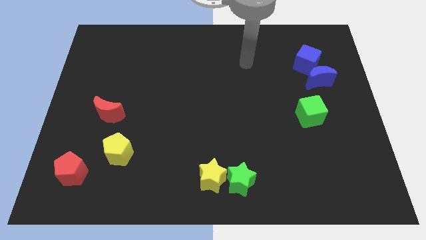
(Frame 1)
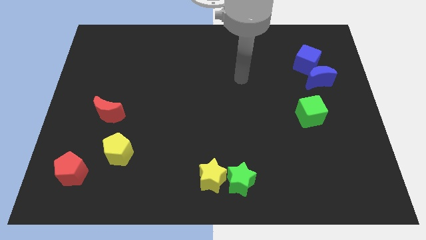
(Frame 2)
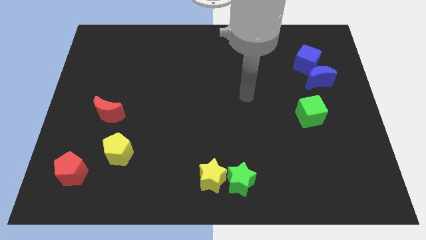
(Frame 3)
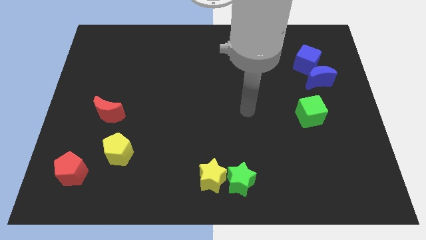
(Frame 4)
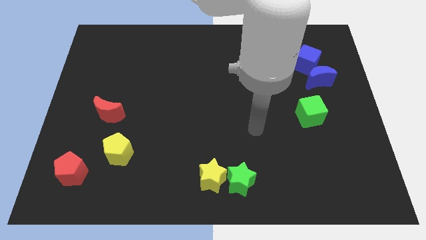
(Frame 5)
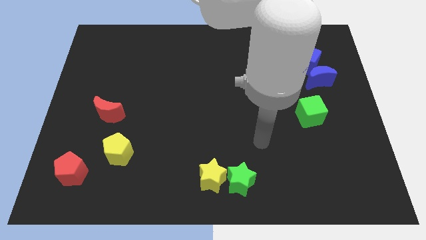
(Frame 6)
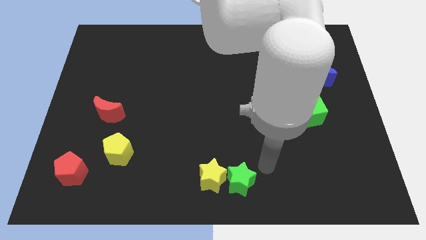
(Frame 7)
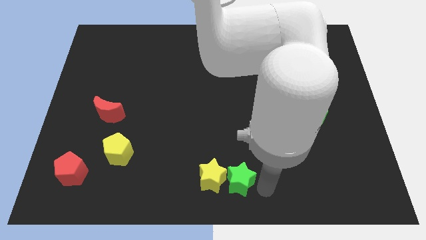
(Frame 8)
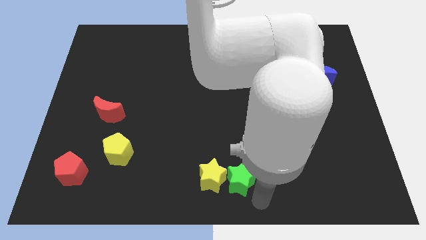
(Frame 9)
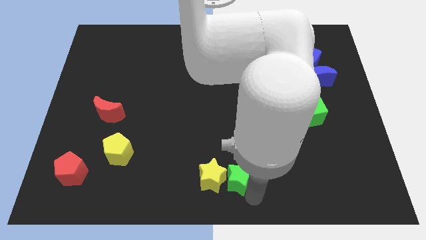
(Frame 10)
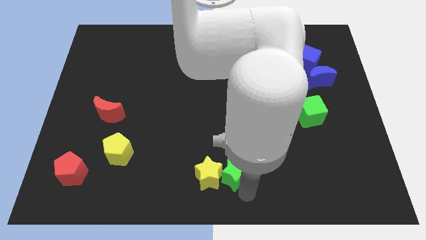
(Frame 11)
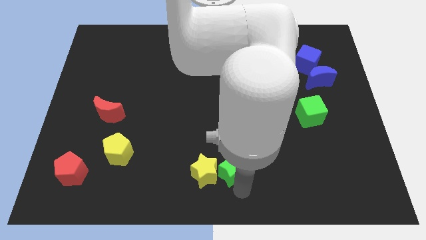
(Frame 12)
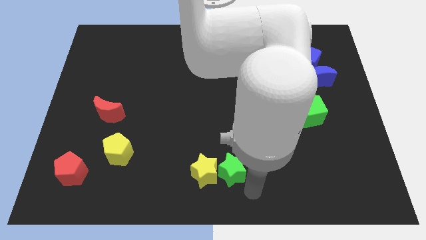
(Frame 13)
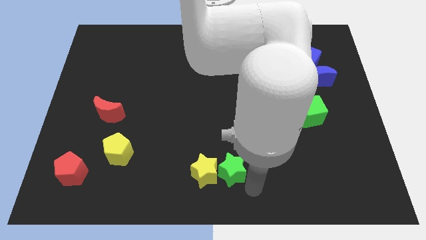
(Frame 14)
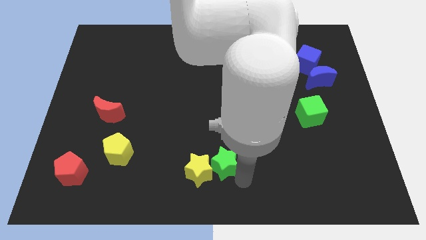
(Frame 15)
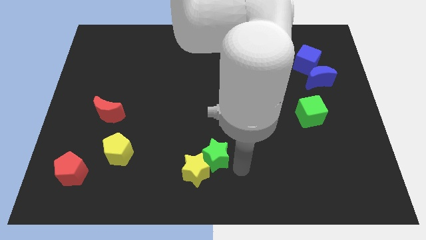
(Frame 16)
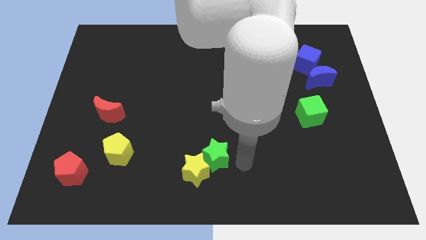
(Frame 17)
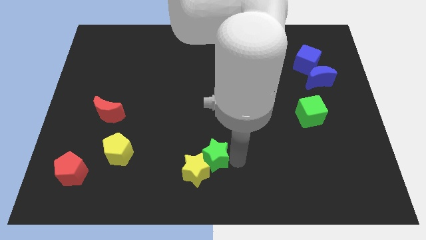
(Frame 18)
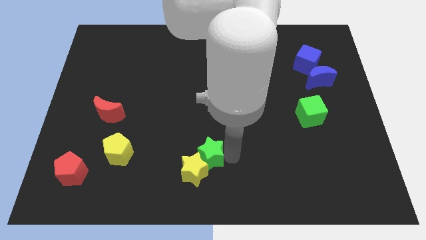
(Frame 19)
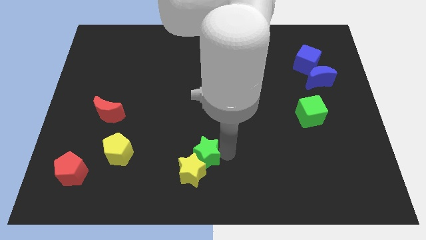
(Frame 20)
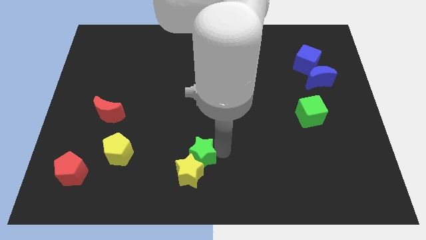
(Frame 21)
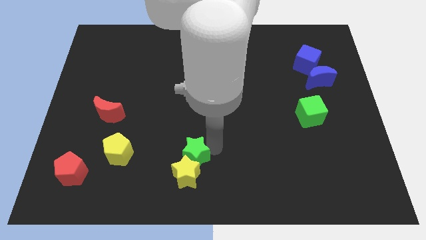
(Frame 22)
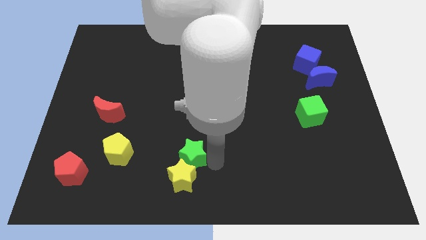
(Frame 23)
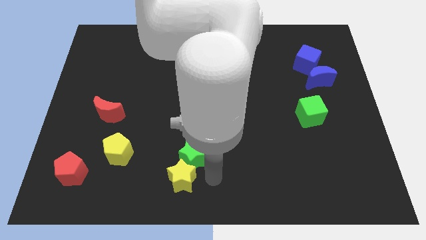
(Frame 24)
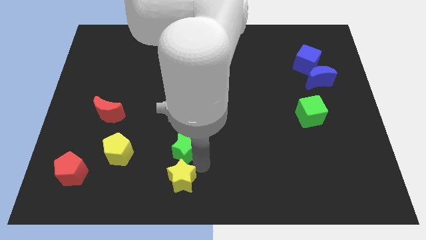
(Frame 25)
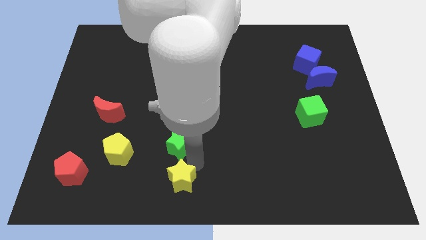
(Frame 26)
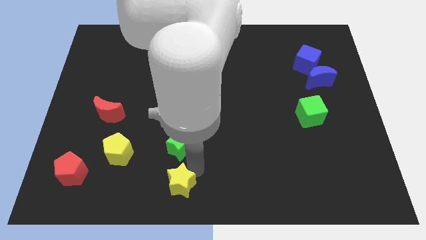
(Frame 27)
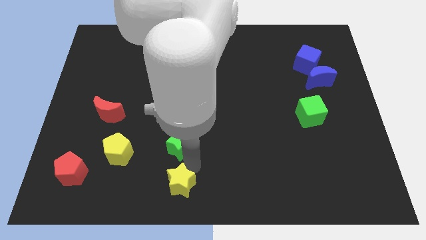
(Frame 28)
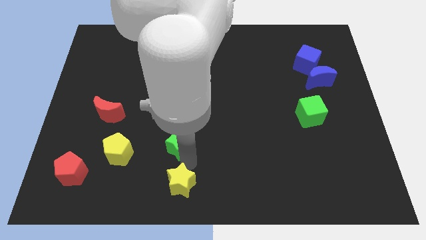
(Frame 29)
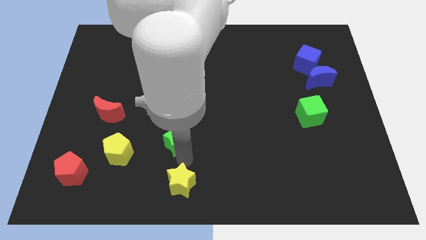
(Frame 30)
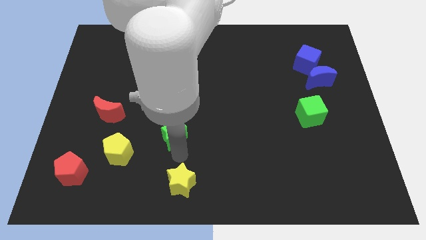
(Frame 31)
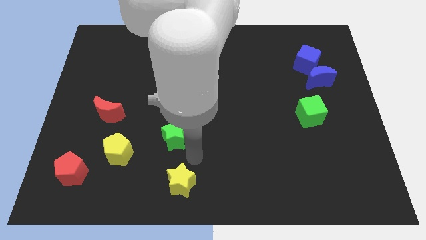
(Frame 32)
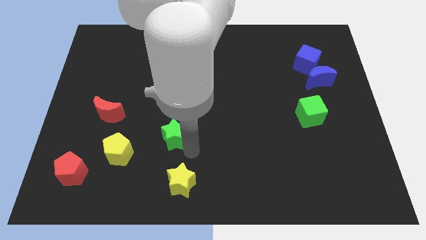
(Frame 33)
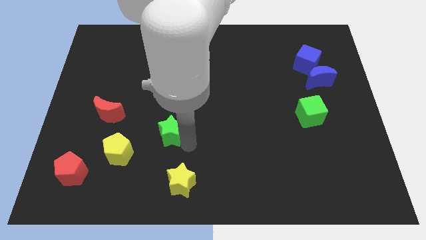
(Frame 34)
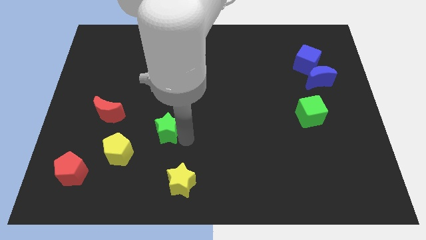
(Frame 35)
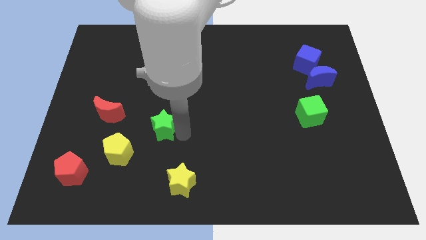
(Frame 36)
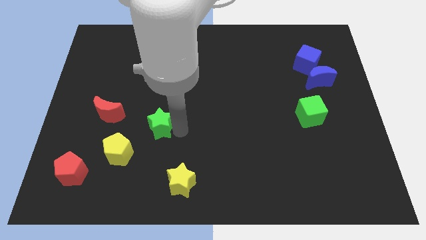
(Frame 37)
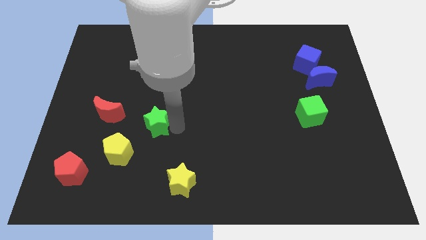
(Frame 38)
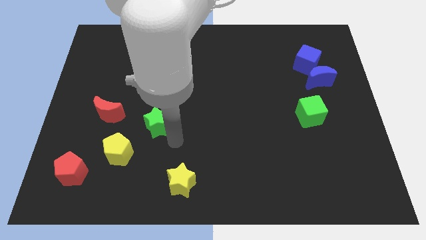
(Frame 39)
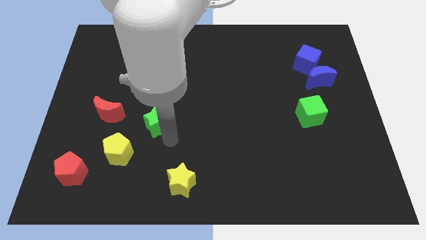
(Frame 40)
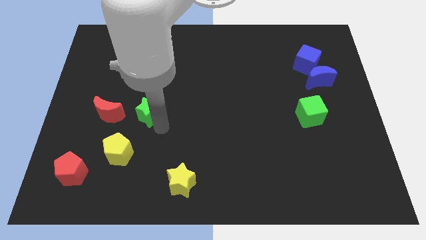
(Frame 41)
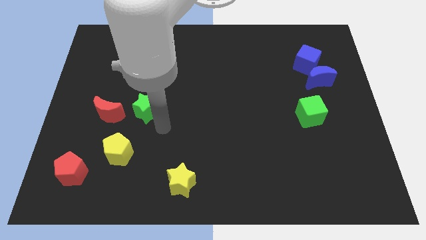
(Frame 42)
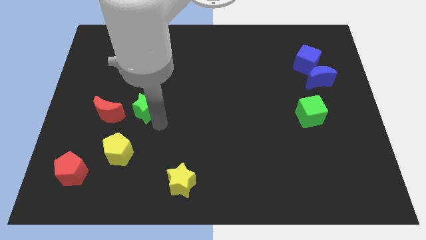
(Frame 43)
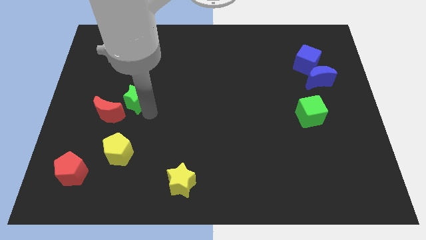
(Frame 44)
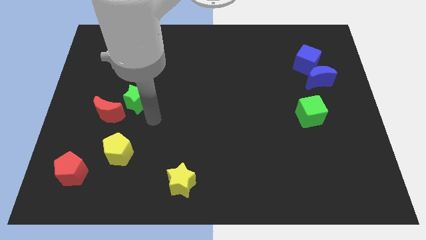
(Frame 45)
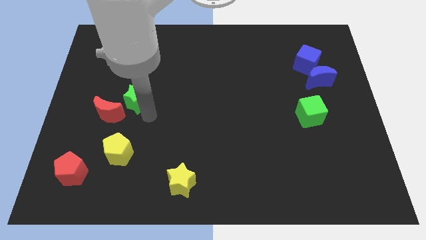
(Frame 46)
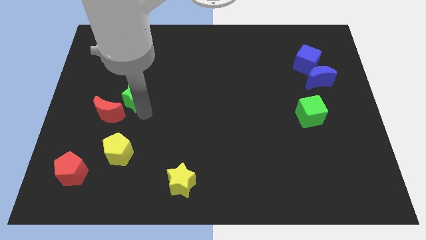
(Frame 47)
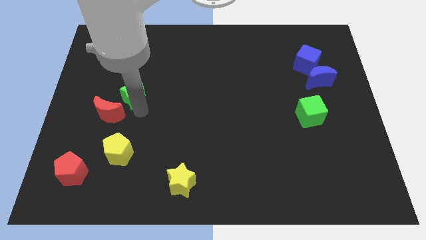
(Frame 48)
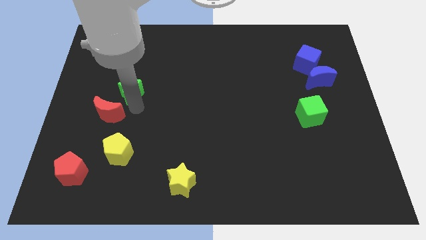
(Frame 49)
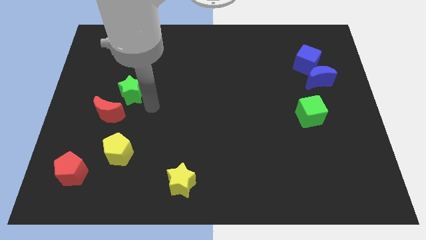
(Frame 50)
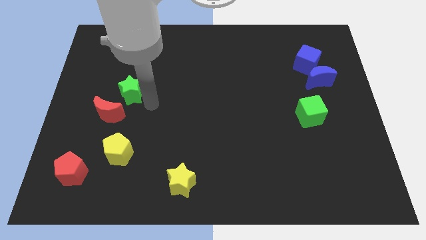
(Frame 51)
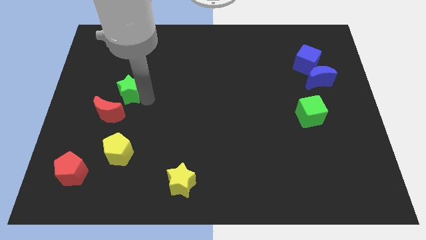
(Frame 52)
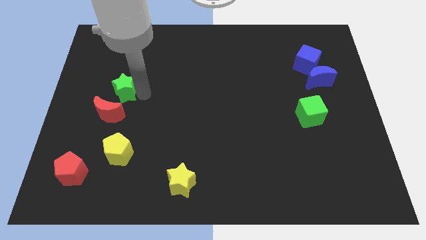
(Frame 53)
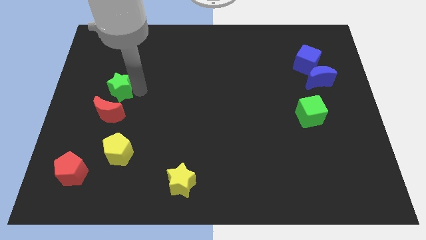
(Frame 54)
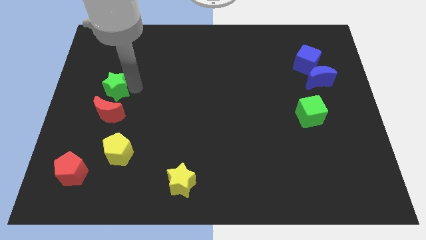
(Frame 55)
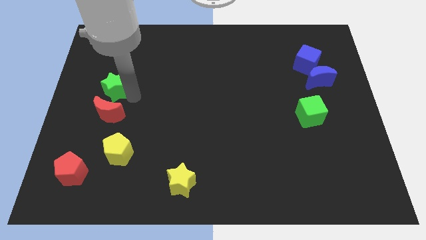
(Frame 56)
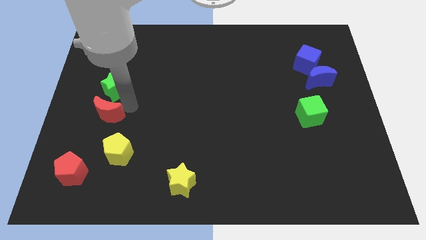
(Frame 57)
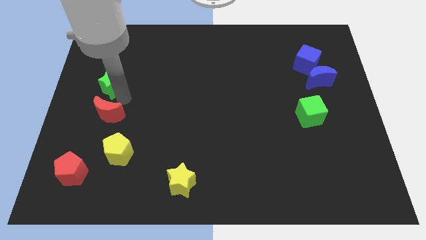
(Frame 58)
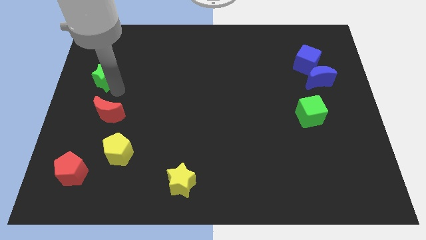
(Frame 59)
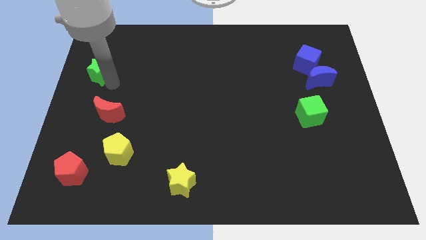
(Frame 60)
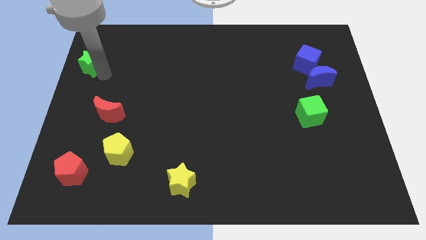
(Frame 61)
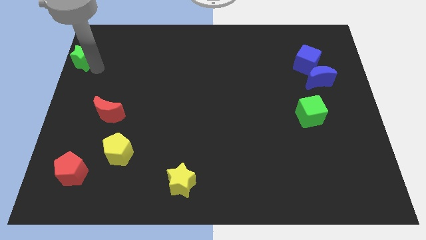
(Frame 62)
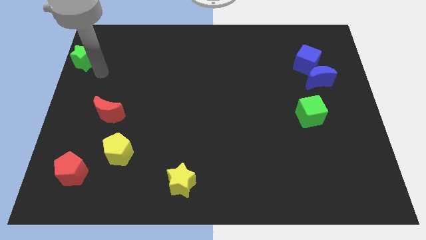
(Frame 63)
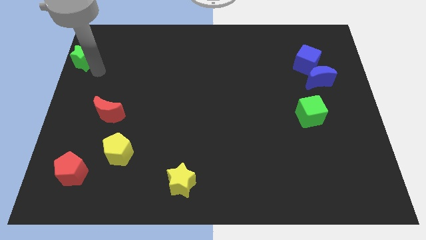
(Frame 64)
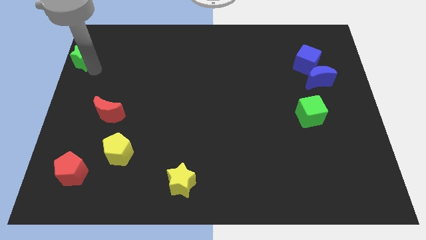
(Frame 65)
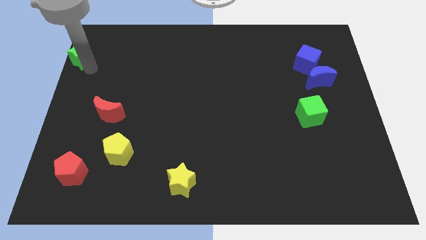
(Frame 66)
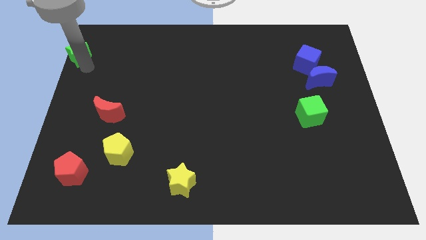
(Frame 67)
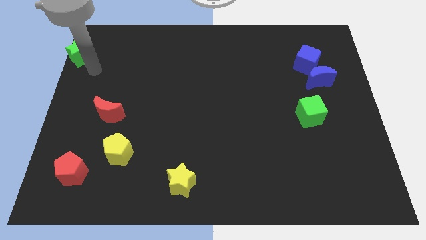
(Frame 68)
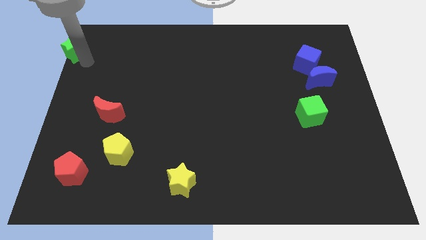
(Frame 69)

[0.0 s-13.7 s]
move the green star to the top left corner

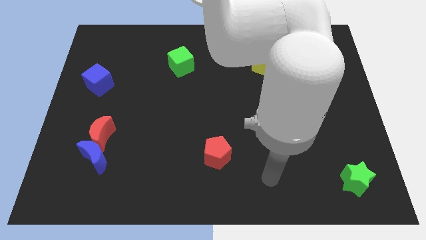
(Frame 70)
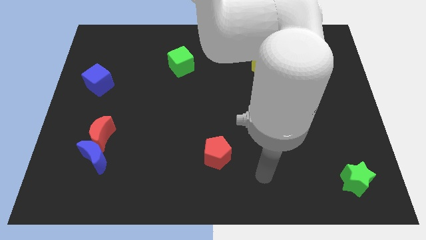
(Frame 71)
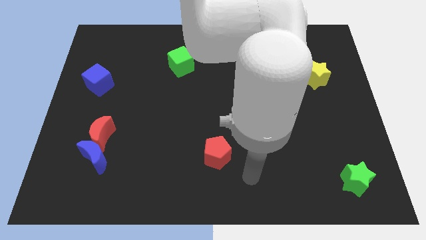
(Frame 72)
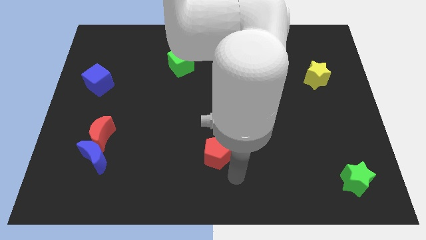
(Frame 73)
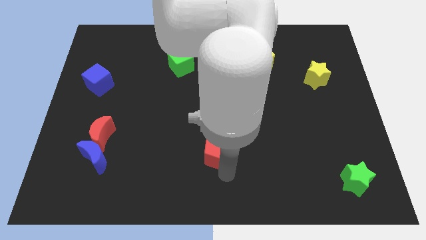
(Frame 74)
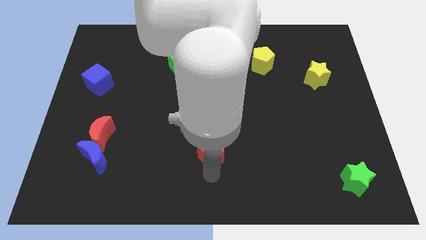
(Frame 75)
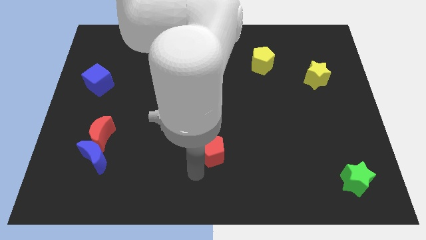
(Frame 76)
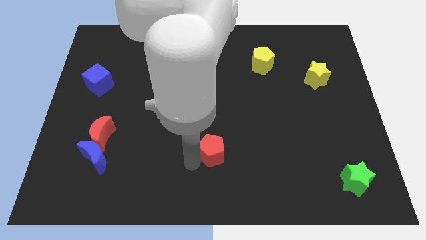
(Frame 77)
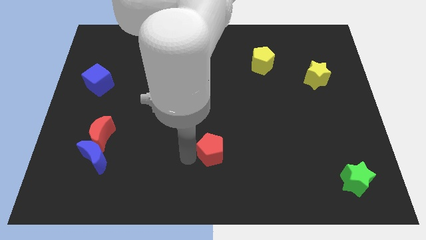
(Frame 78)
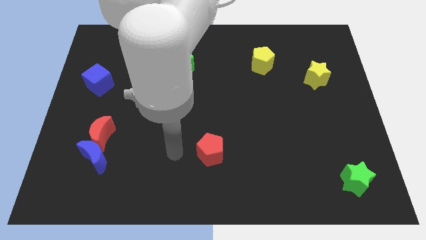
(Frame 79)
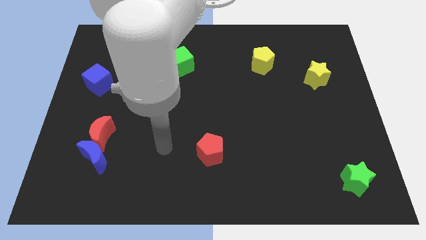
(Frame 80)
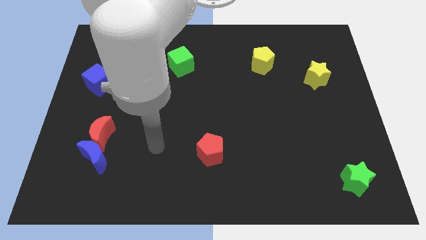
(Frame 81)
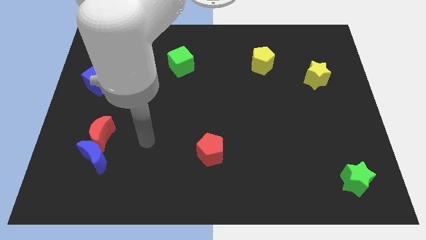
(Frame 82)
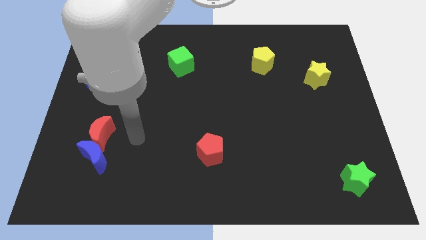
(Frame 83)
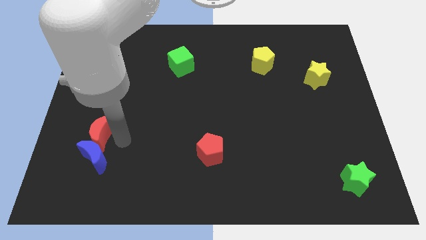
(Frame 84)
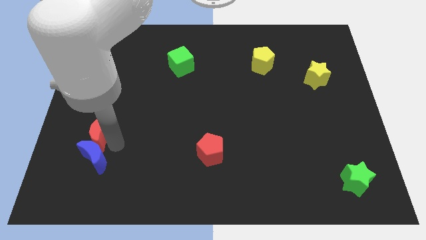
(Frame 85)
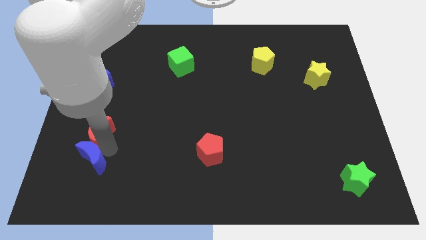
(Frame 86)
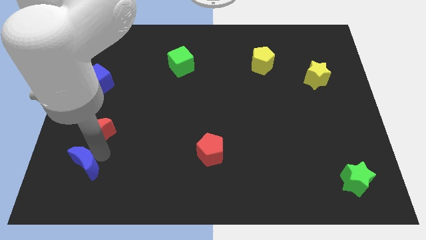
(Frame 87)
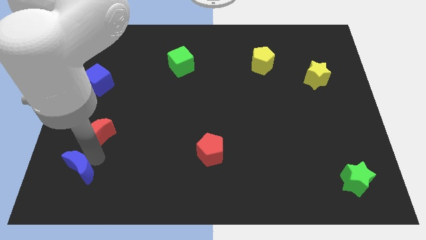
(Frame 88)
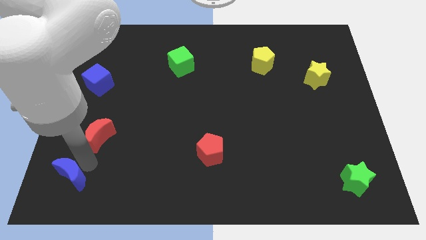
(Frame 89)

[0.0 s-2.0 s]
put the blue moon to the bottom left of the board
